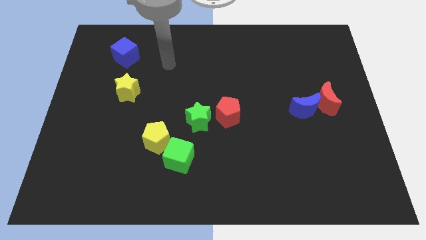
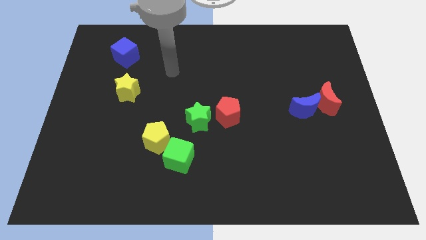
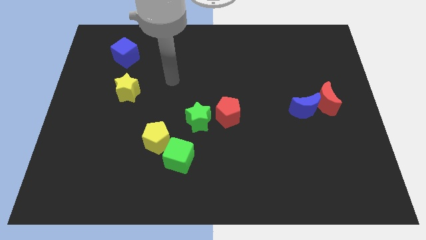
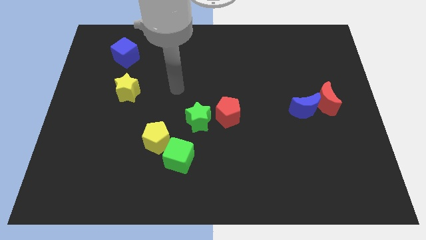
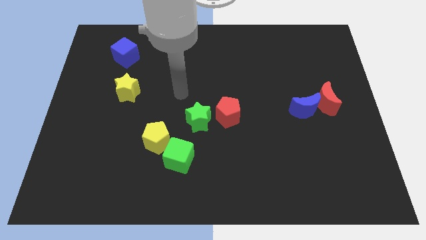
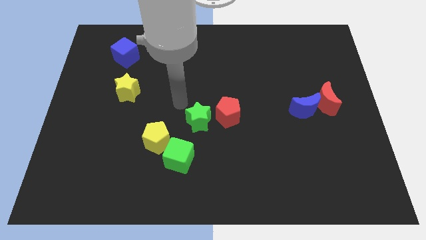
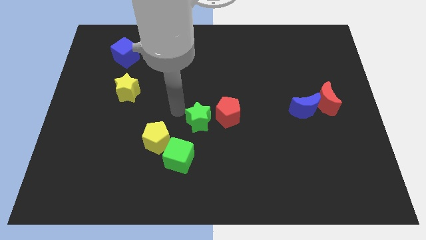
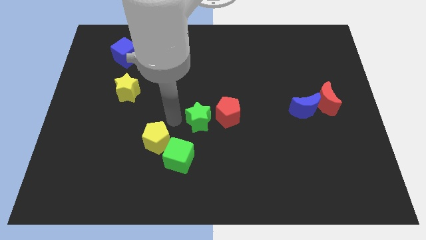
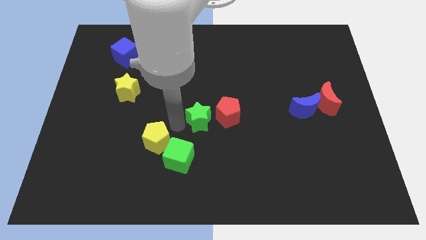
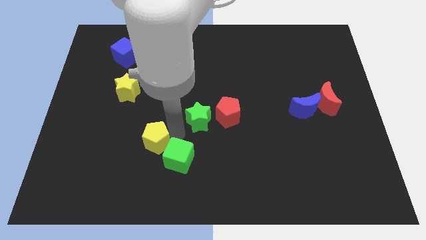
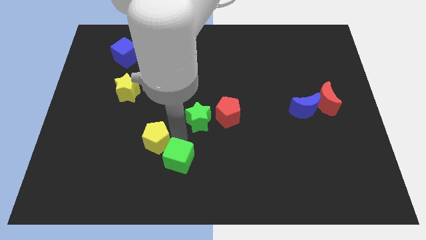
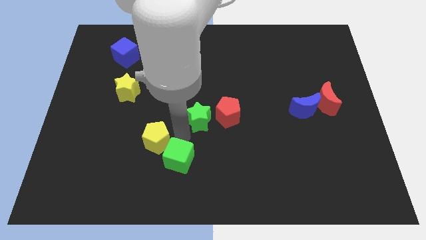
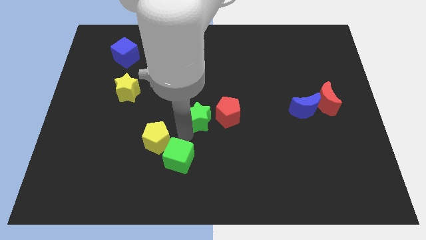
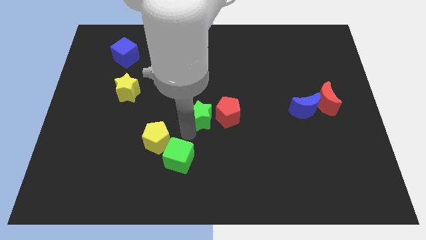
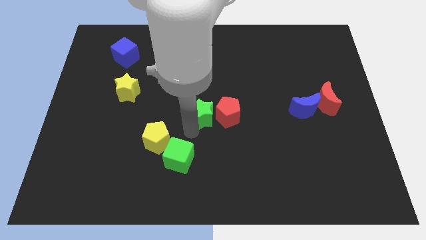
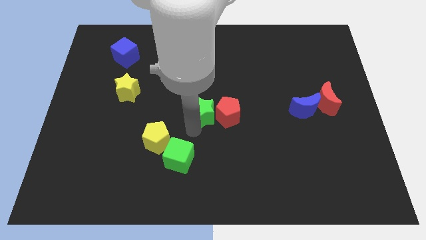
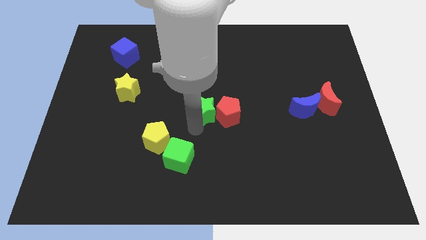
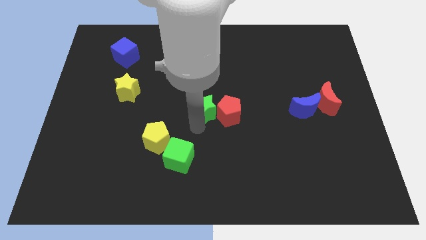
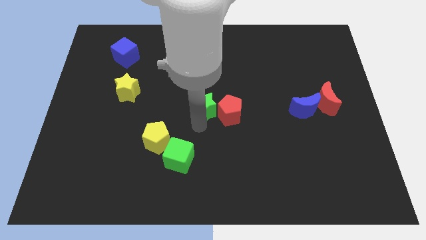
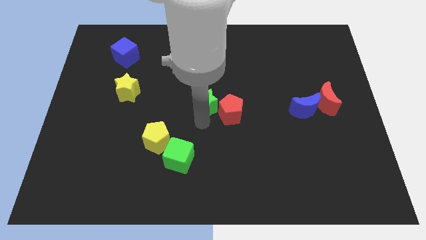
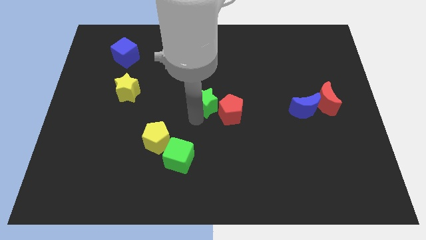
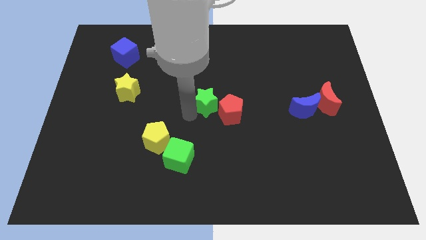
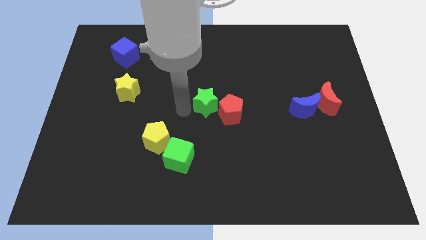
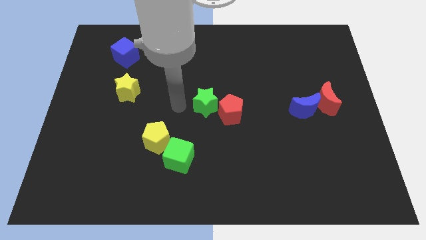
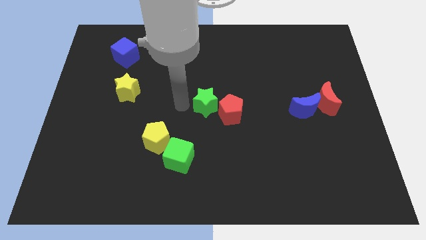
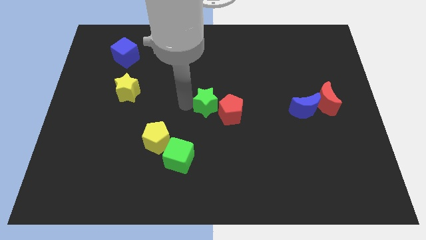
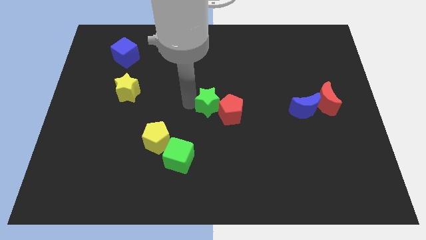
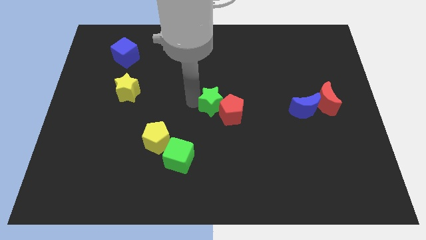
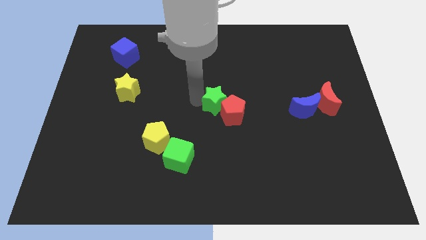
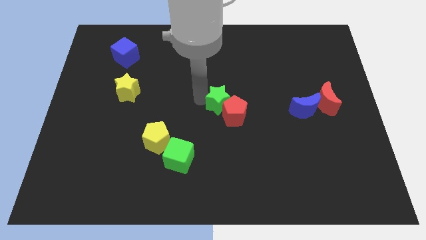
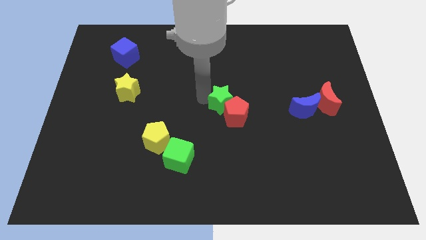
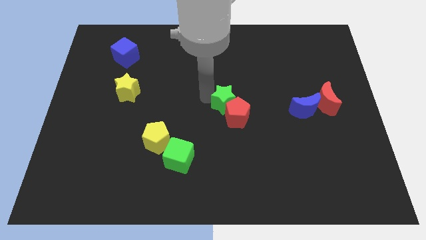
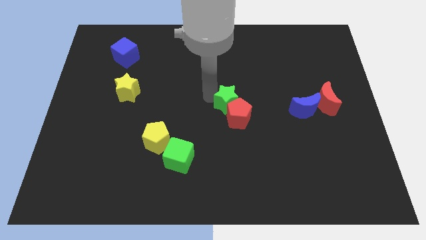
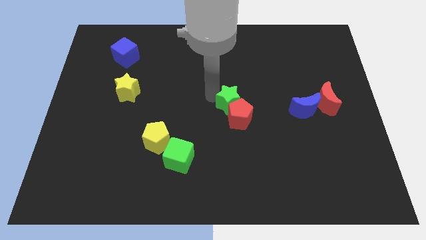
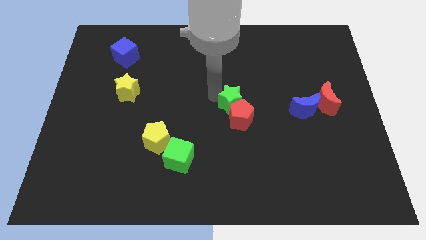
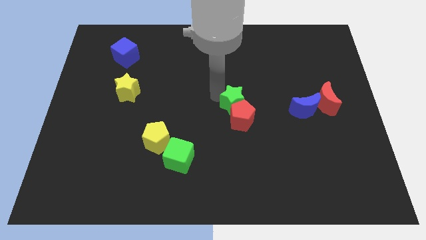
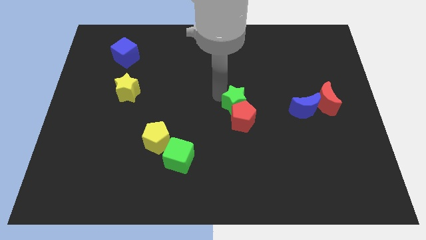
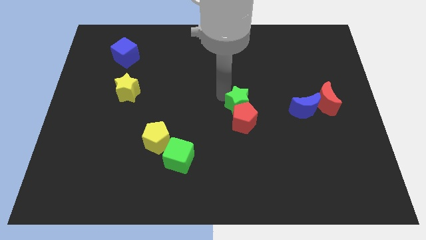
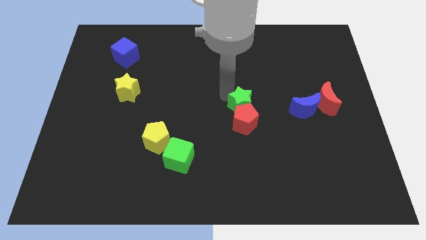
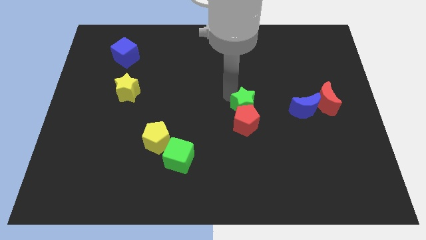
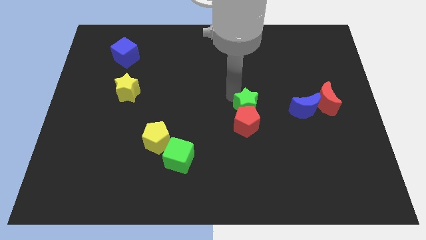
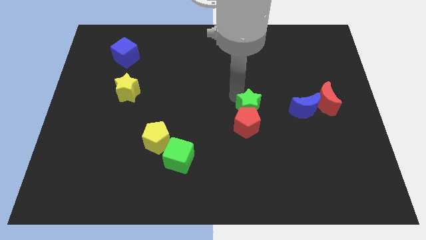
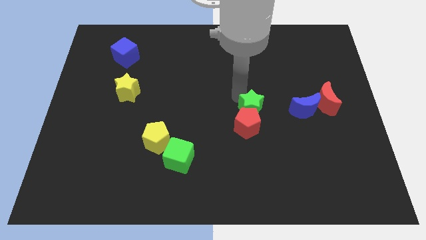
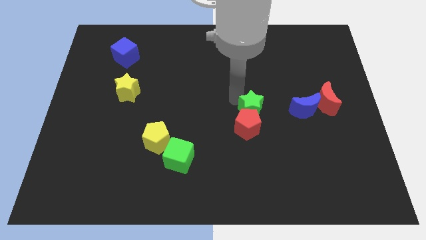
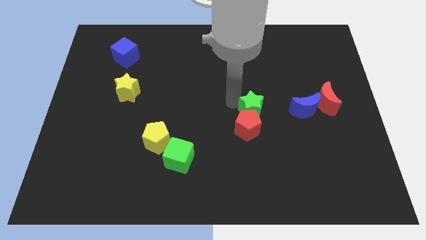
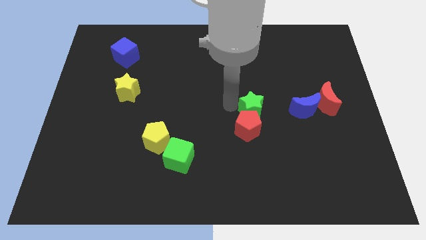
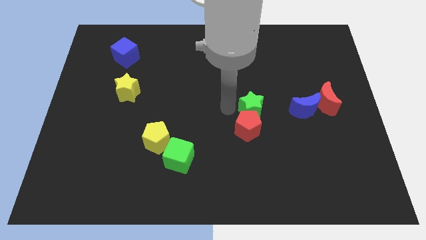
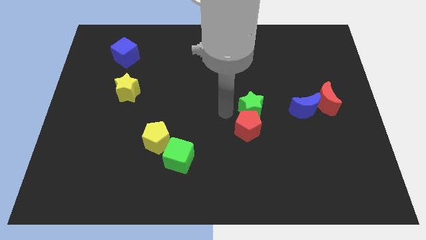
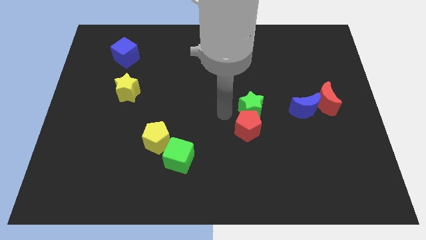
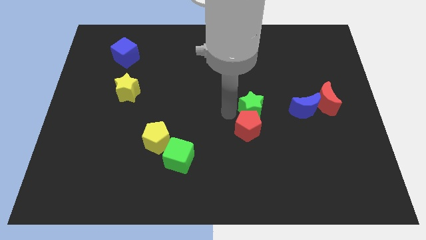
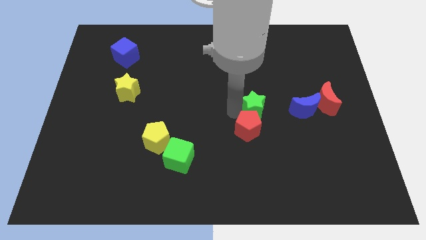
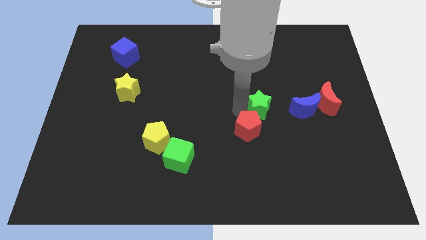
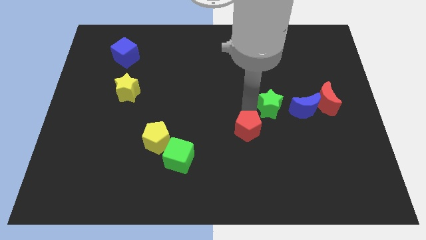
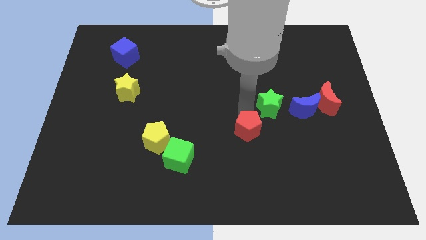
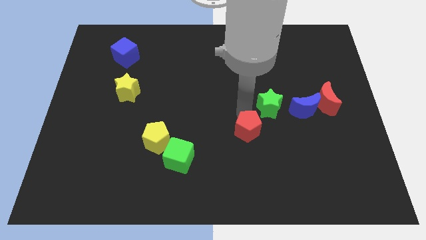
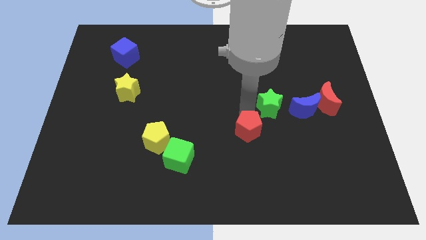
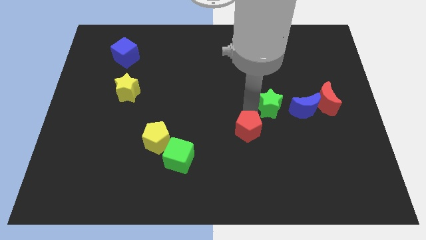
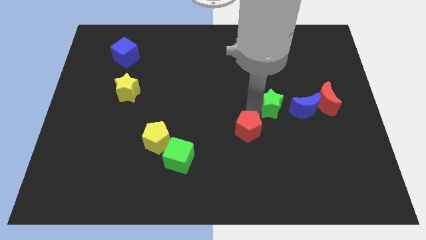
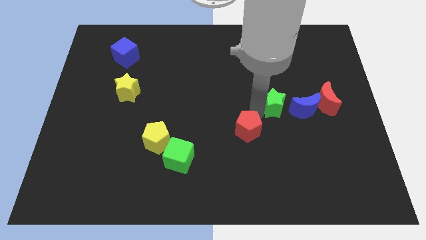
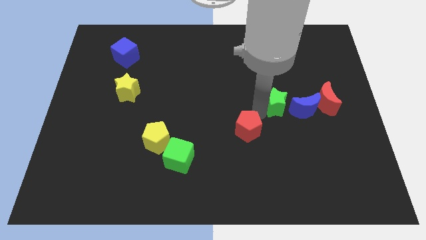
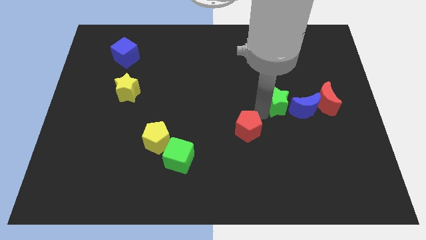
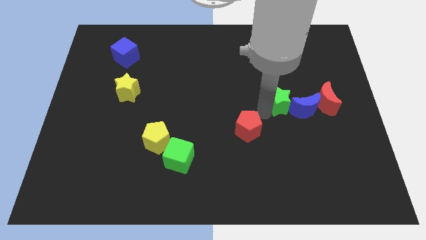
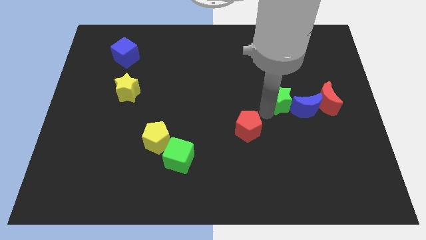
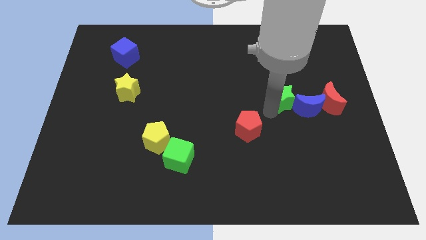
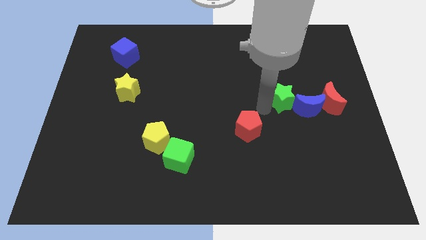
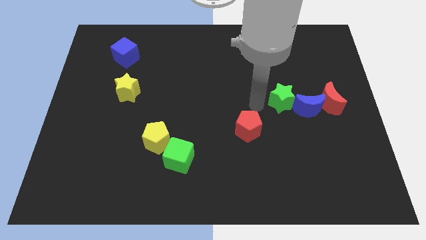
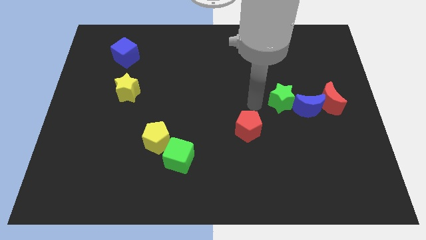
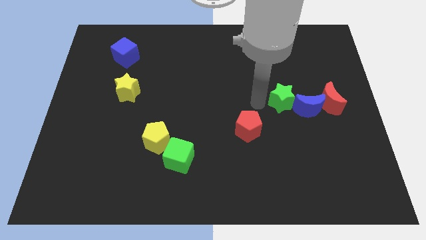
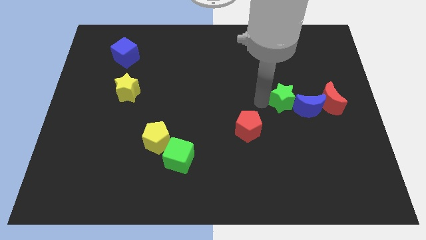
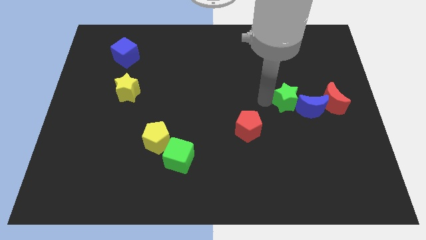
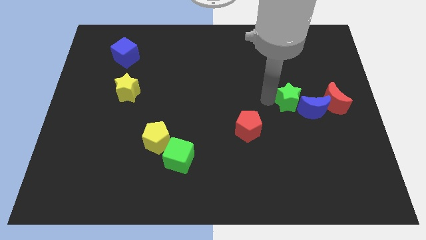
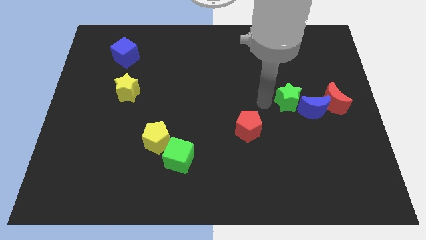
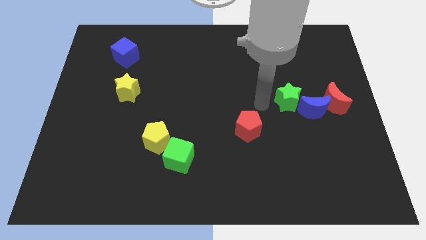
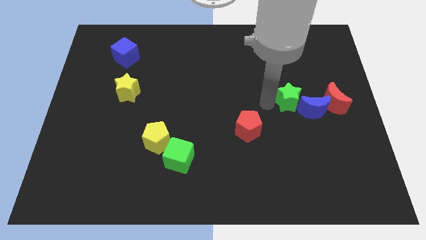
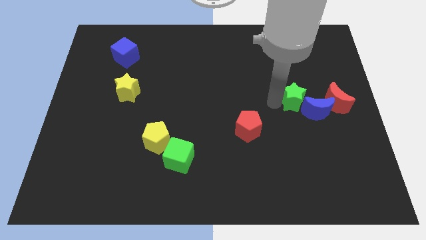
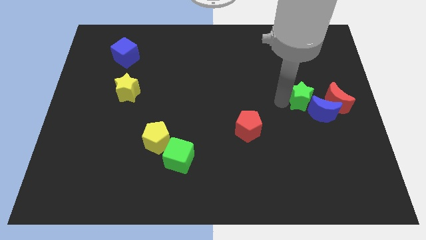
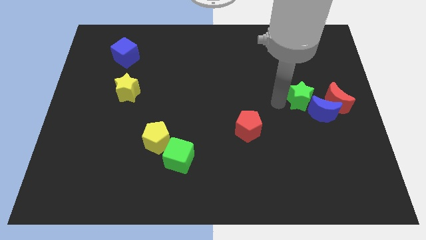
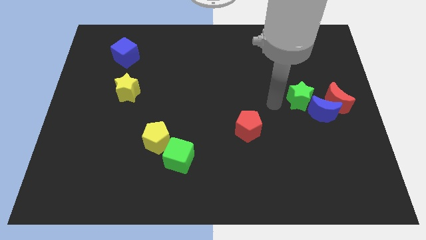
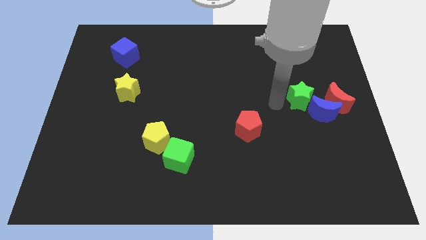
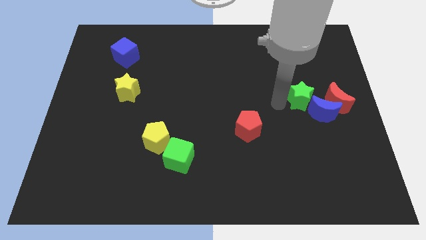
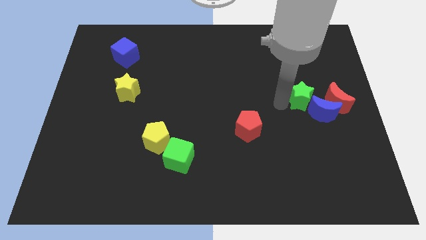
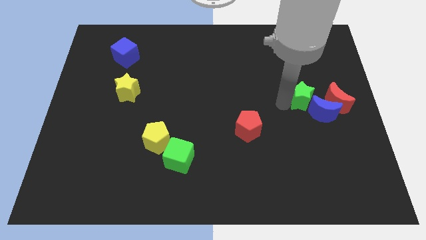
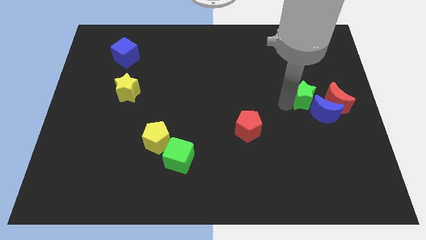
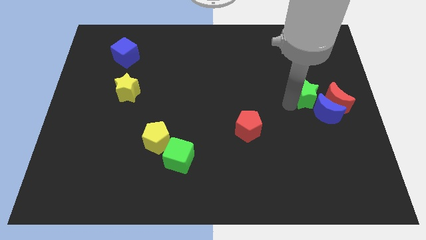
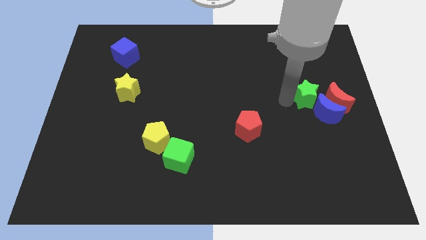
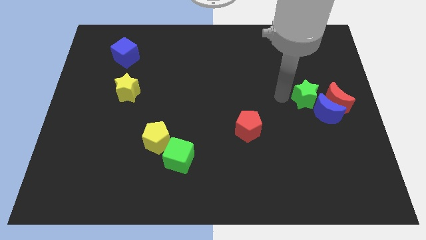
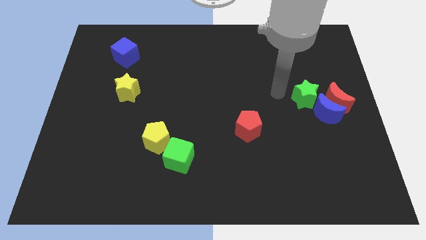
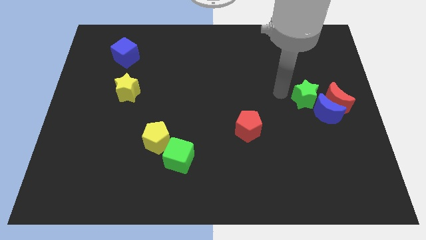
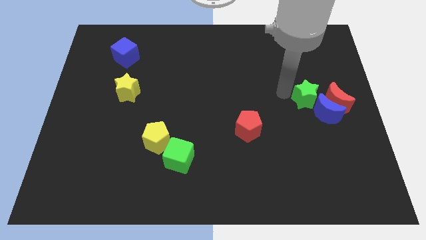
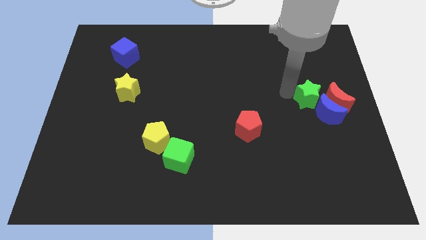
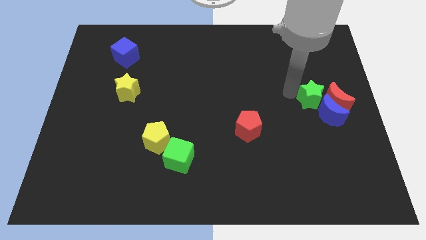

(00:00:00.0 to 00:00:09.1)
slide the green star towards the red moon
